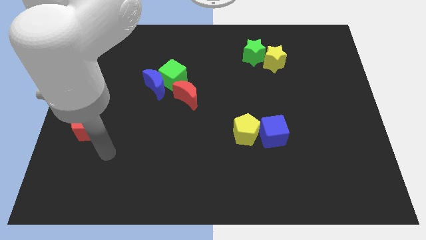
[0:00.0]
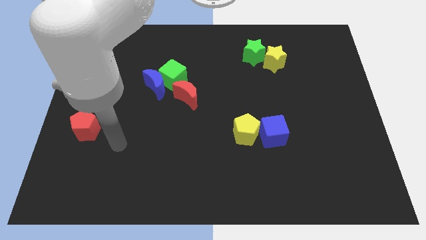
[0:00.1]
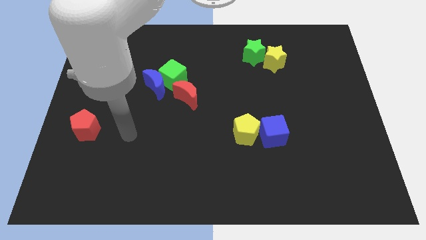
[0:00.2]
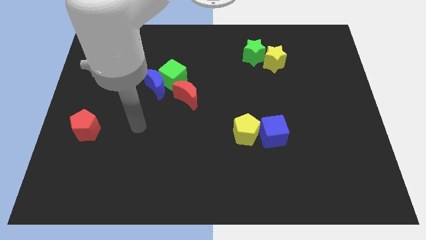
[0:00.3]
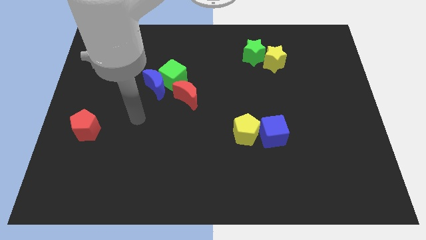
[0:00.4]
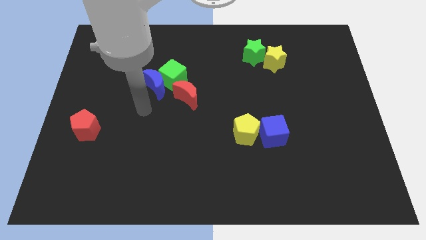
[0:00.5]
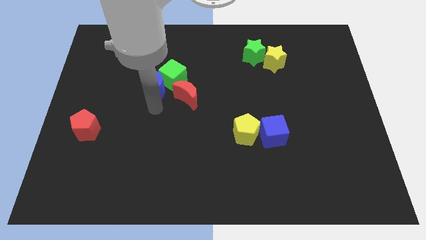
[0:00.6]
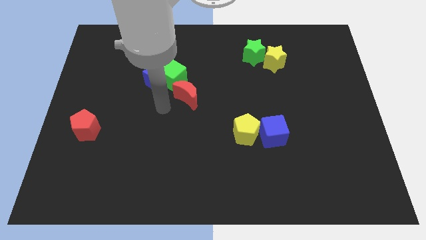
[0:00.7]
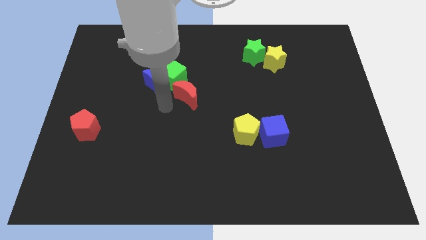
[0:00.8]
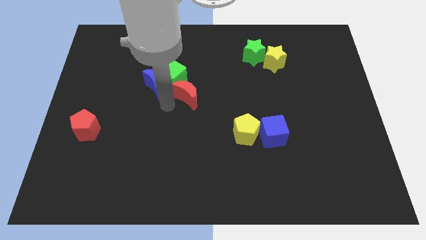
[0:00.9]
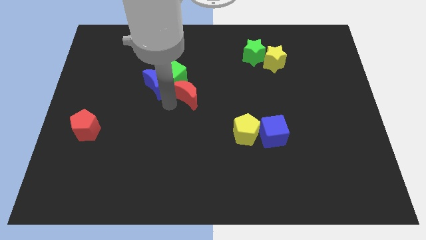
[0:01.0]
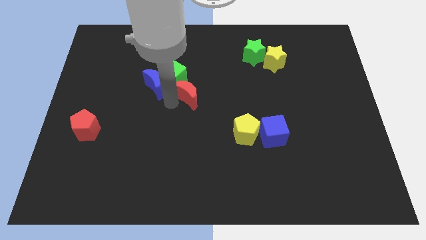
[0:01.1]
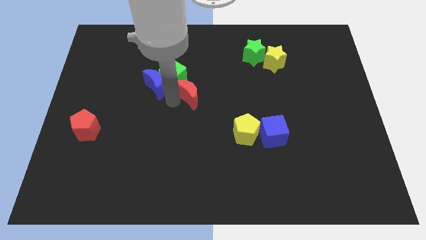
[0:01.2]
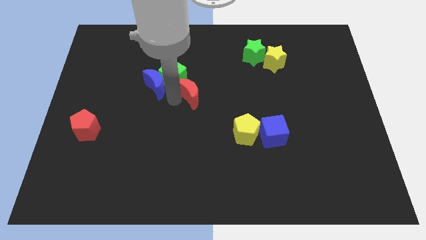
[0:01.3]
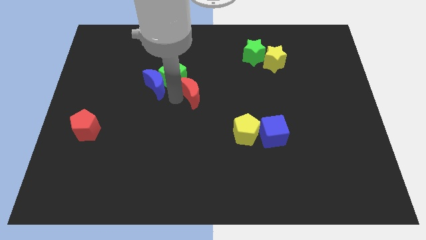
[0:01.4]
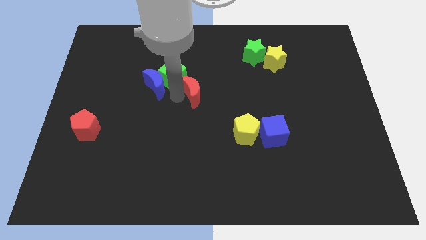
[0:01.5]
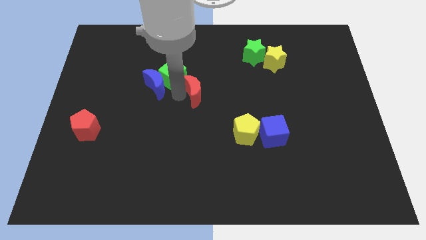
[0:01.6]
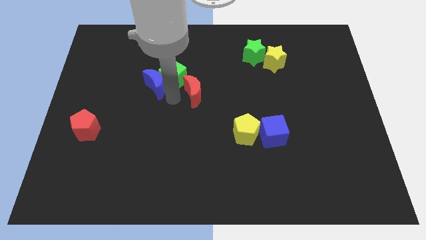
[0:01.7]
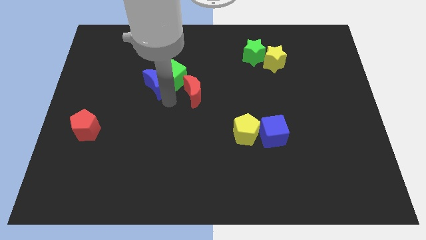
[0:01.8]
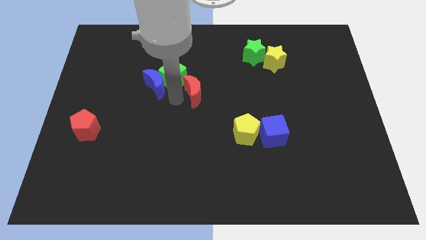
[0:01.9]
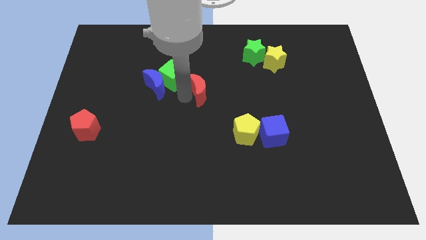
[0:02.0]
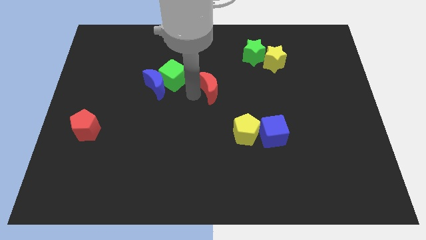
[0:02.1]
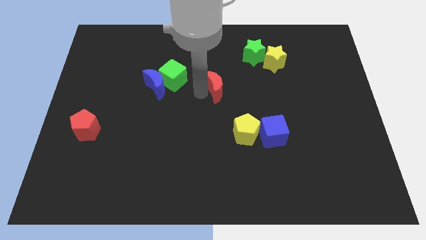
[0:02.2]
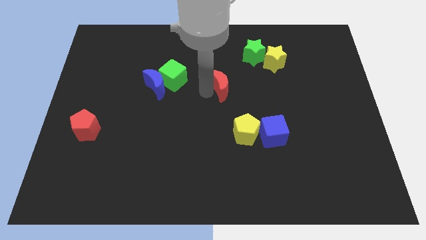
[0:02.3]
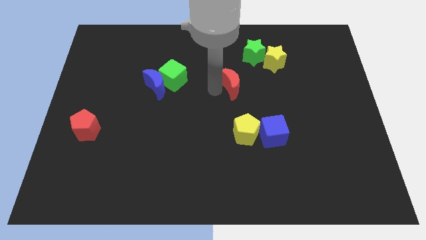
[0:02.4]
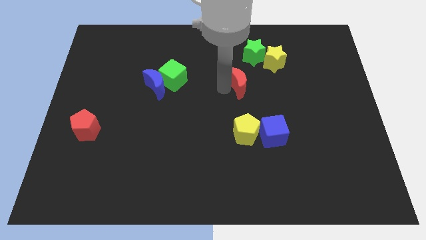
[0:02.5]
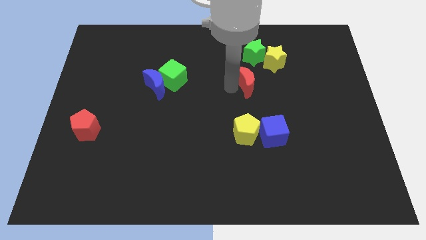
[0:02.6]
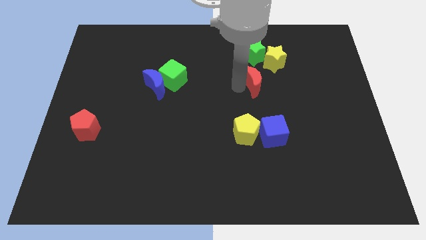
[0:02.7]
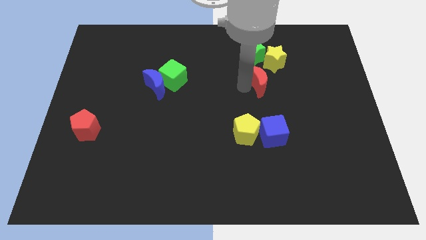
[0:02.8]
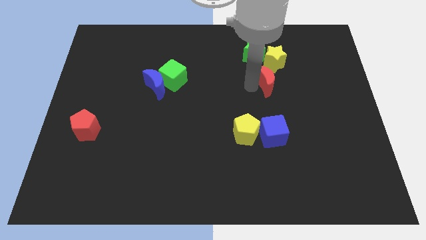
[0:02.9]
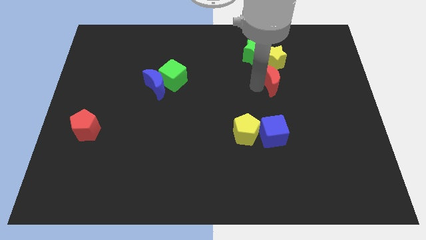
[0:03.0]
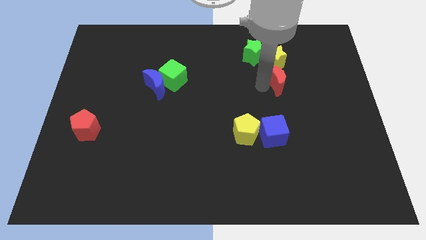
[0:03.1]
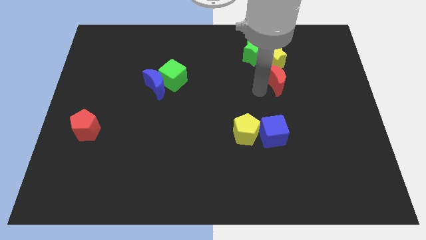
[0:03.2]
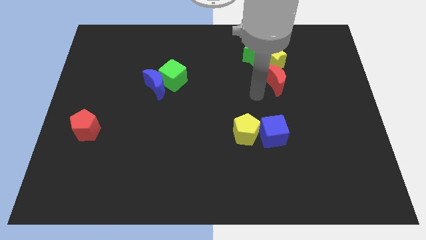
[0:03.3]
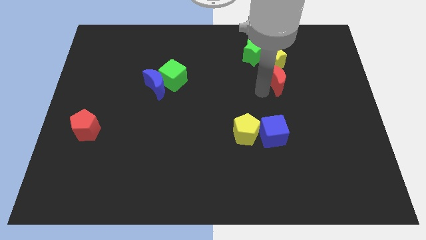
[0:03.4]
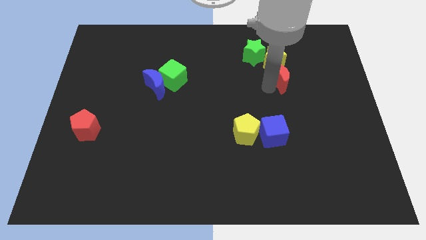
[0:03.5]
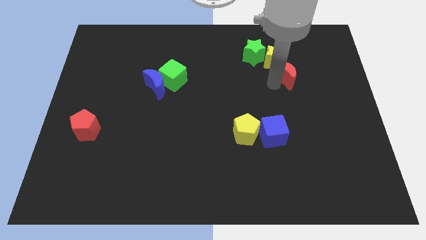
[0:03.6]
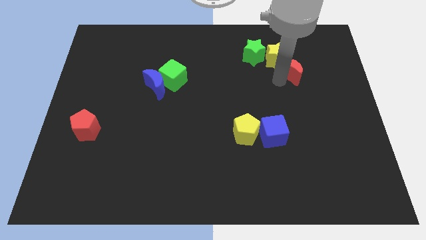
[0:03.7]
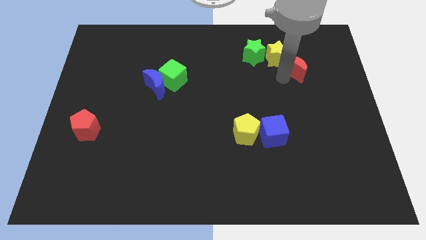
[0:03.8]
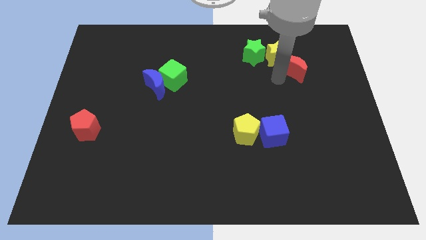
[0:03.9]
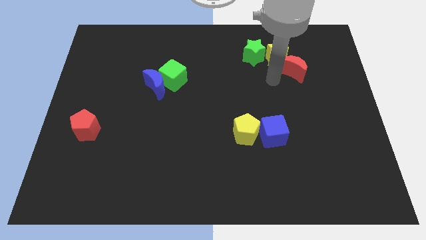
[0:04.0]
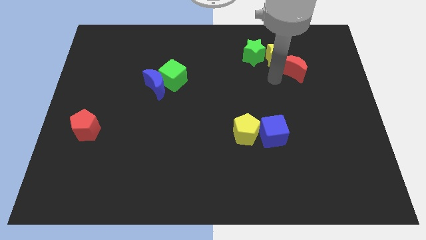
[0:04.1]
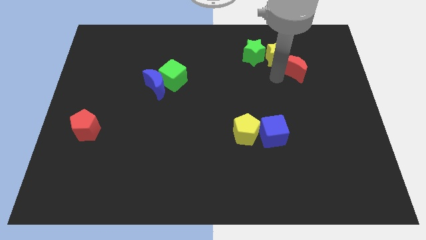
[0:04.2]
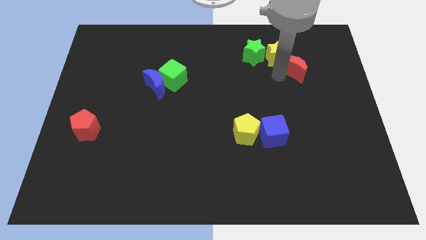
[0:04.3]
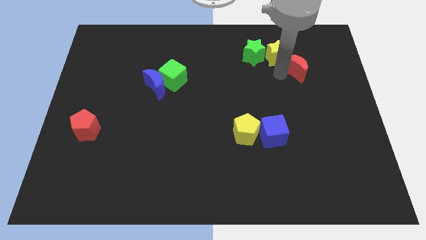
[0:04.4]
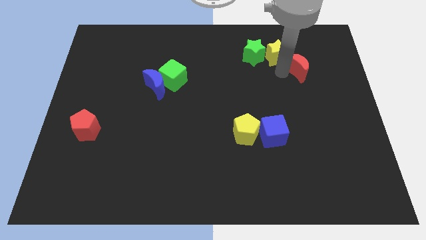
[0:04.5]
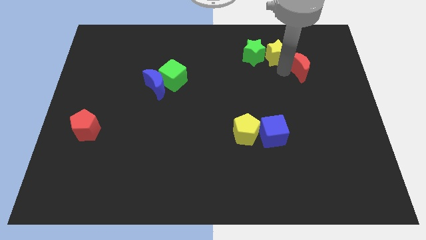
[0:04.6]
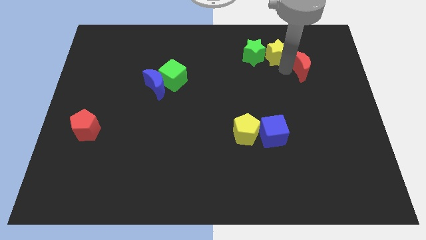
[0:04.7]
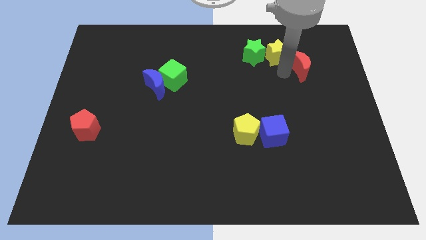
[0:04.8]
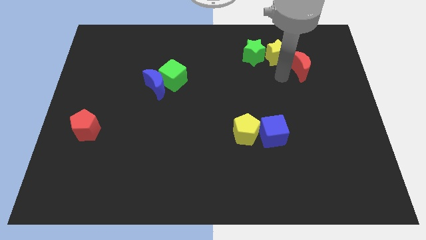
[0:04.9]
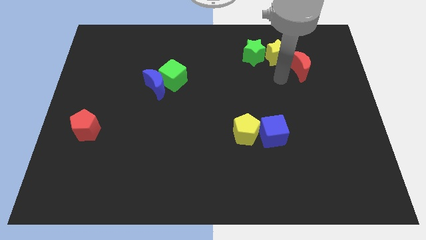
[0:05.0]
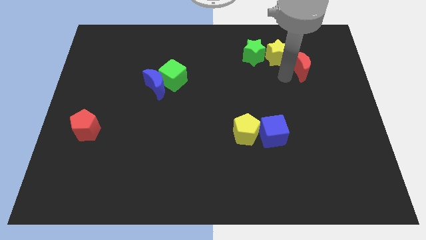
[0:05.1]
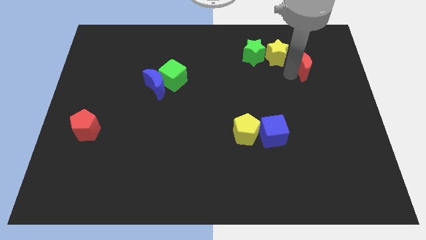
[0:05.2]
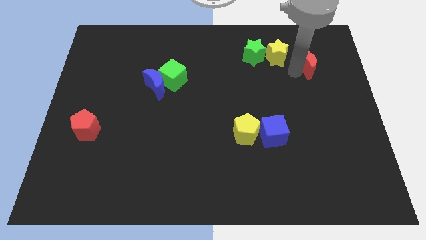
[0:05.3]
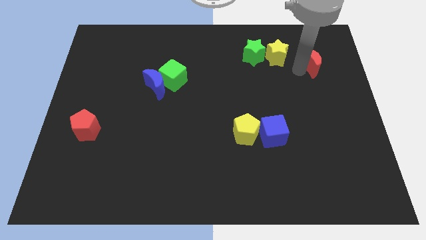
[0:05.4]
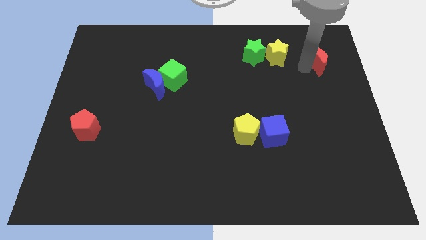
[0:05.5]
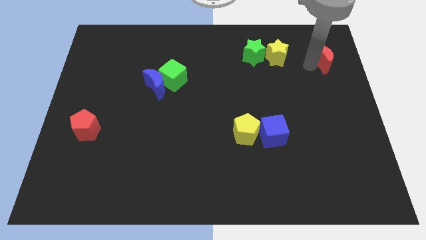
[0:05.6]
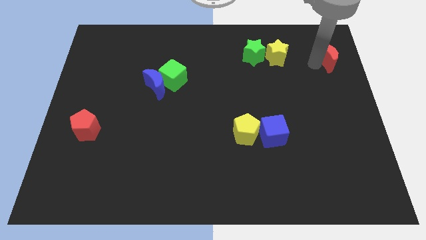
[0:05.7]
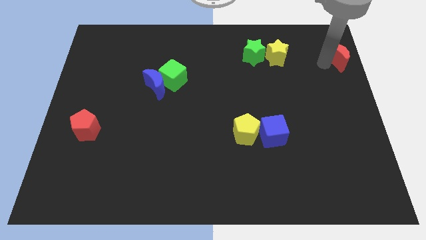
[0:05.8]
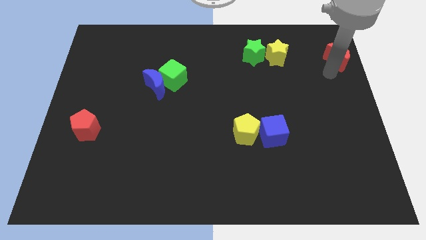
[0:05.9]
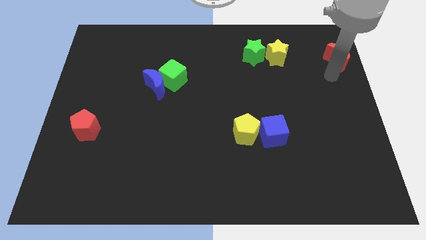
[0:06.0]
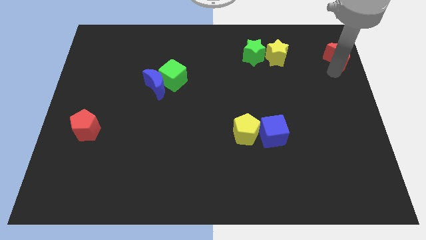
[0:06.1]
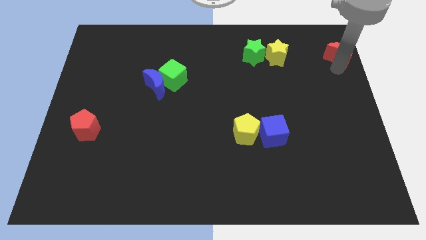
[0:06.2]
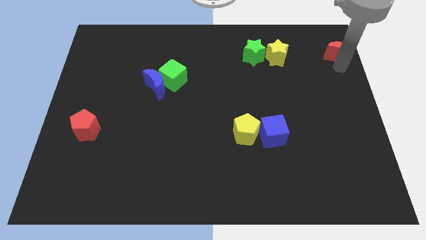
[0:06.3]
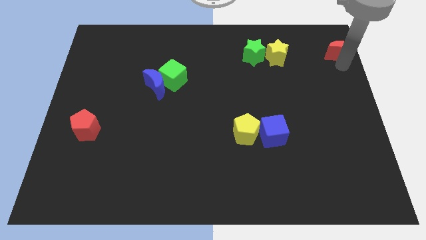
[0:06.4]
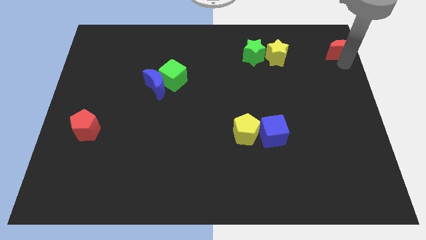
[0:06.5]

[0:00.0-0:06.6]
put the red moon to the top right
